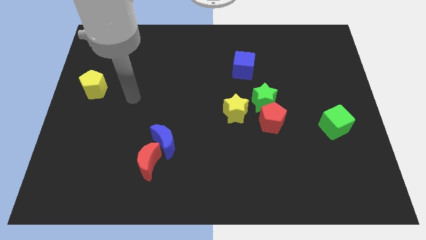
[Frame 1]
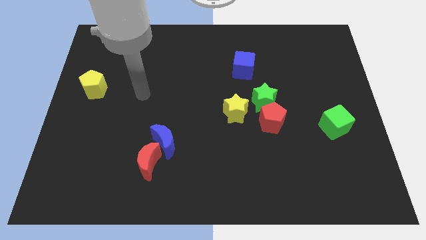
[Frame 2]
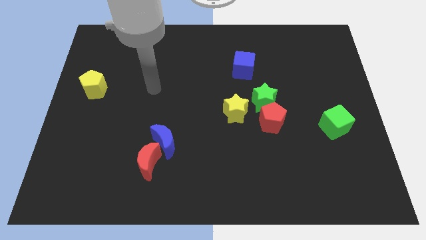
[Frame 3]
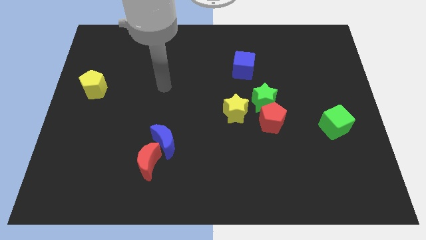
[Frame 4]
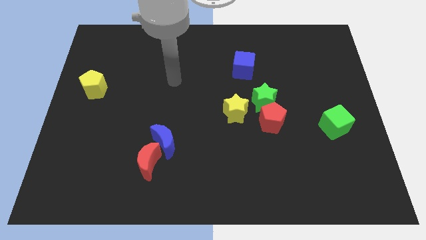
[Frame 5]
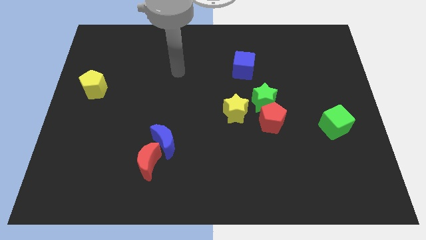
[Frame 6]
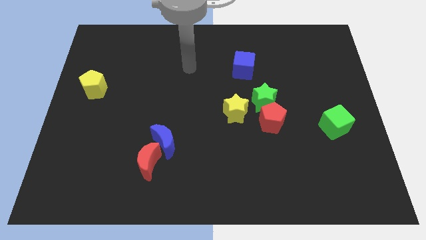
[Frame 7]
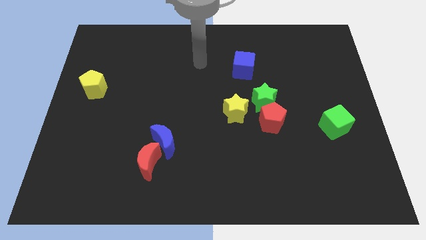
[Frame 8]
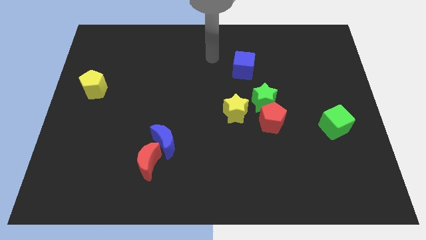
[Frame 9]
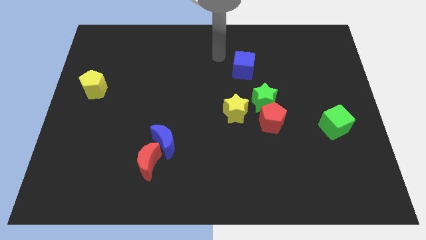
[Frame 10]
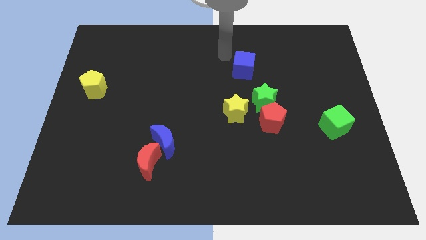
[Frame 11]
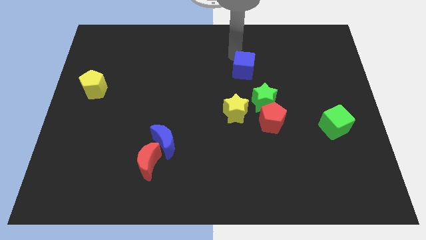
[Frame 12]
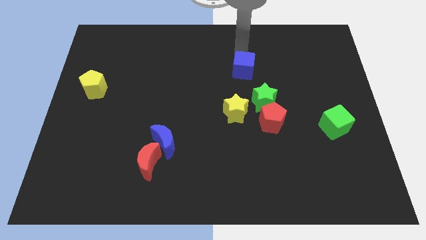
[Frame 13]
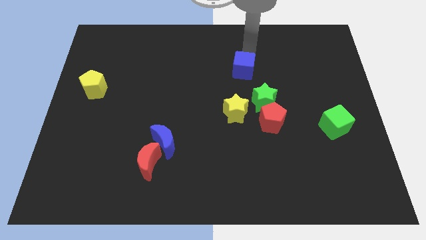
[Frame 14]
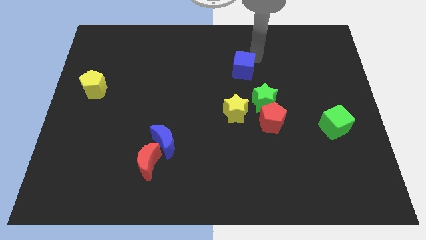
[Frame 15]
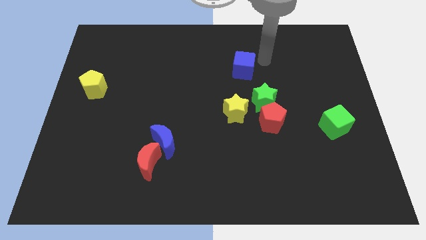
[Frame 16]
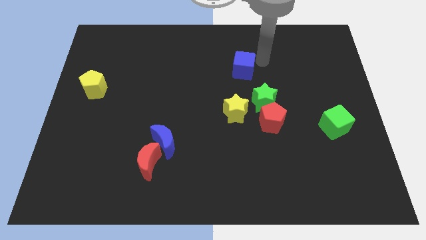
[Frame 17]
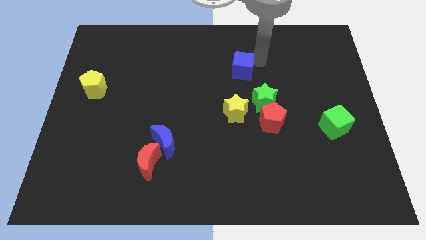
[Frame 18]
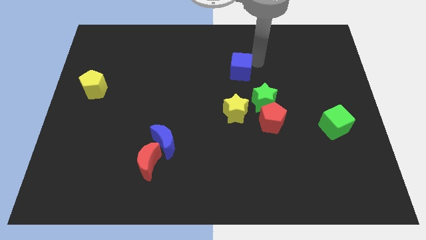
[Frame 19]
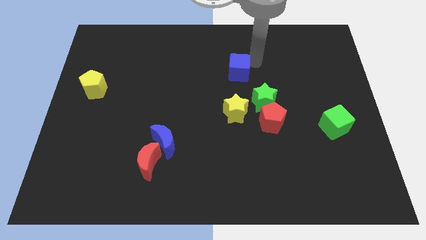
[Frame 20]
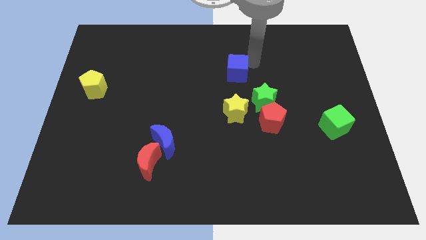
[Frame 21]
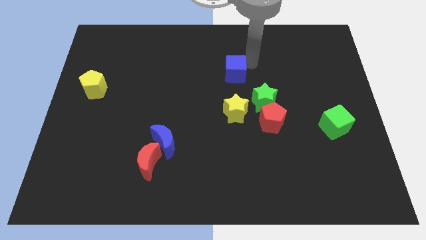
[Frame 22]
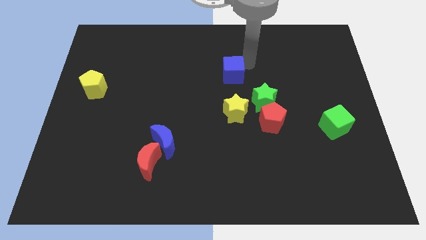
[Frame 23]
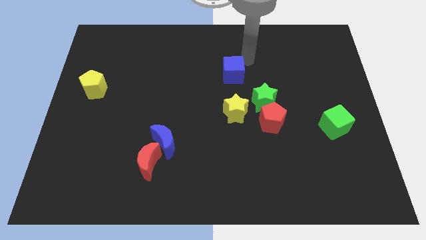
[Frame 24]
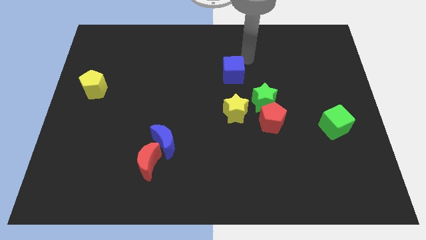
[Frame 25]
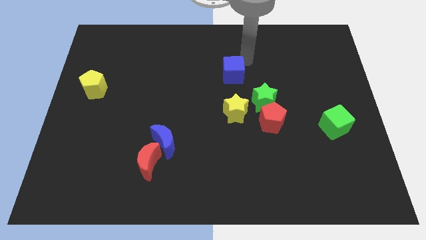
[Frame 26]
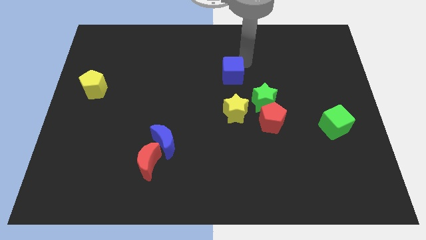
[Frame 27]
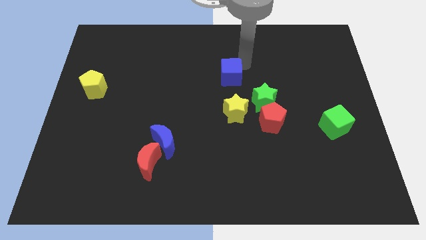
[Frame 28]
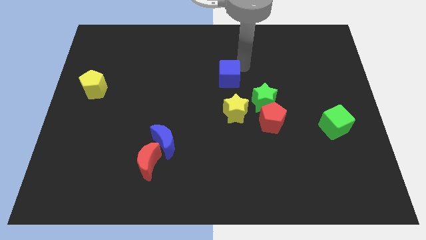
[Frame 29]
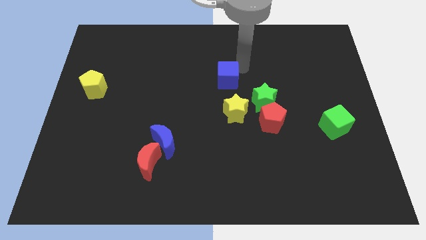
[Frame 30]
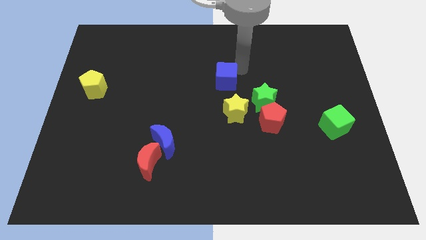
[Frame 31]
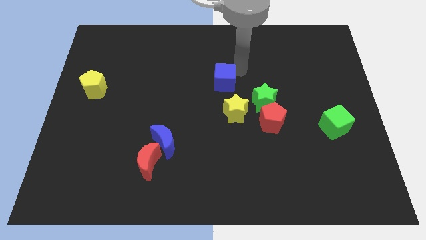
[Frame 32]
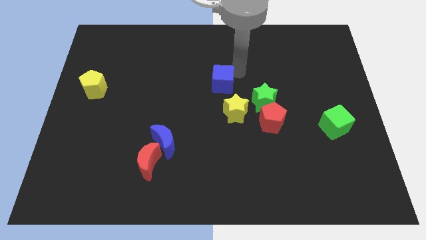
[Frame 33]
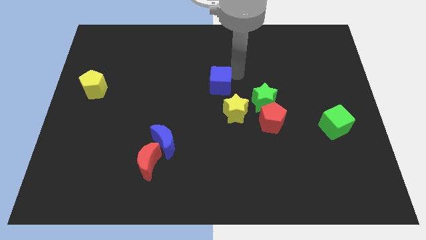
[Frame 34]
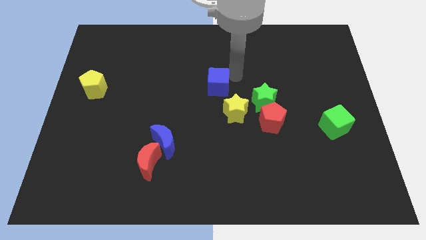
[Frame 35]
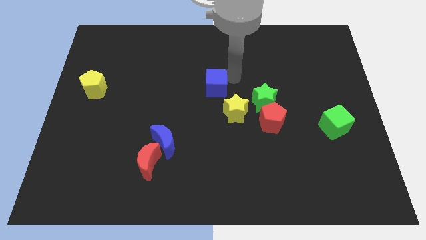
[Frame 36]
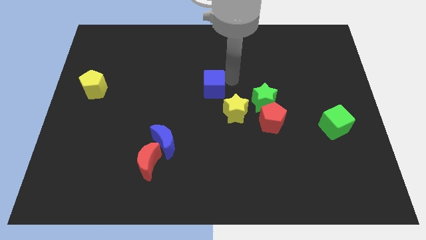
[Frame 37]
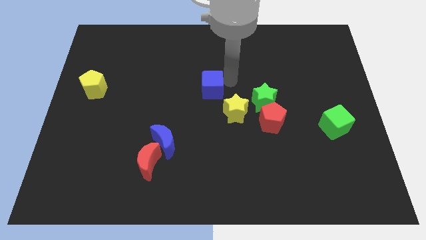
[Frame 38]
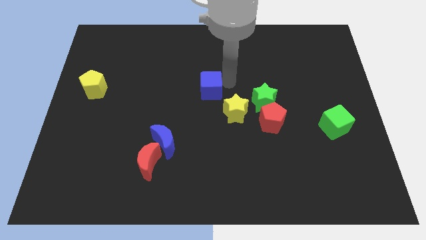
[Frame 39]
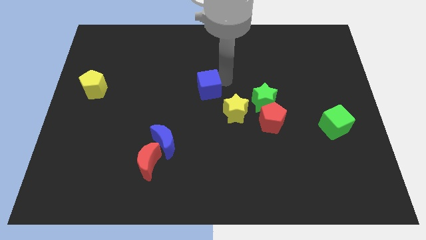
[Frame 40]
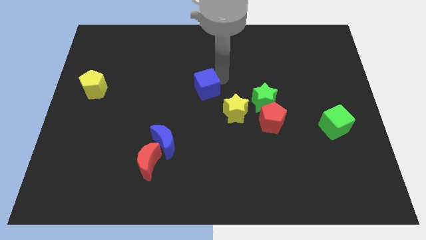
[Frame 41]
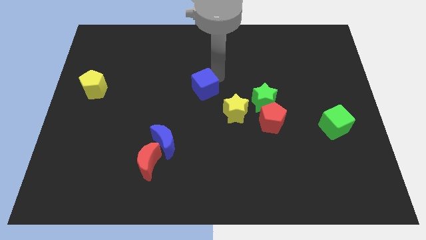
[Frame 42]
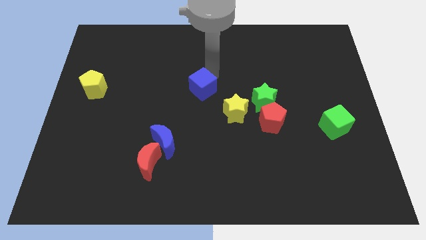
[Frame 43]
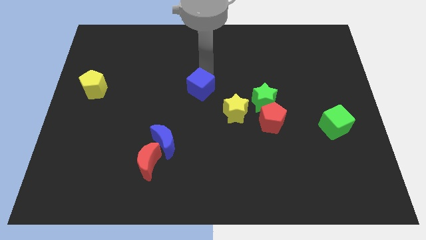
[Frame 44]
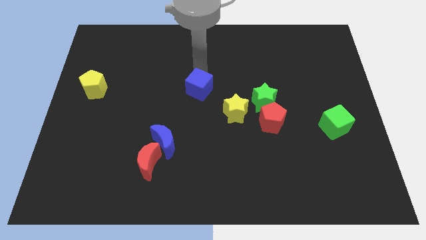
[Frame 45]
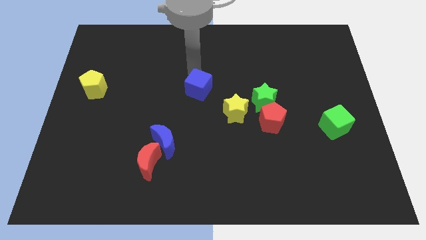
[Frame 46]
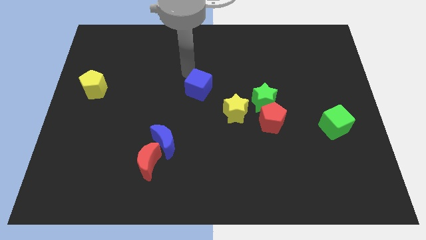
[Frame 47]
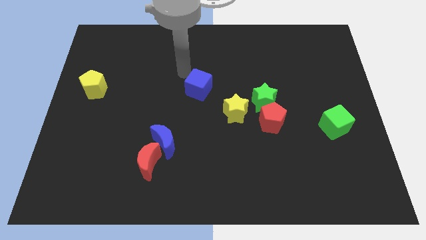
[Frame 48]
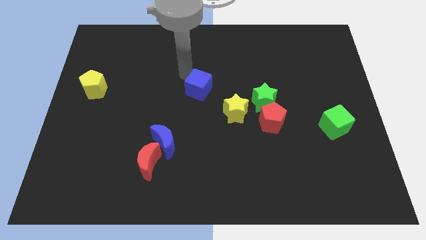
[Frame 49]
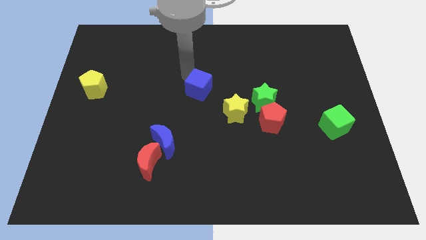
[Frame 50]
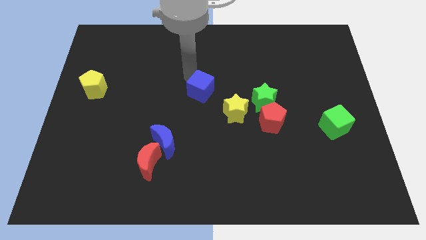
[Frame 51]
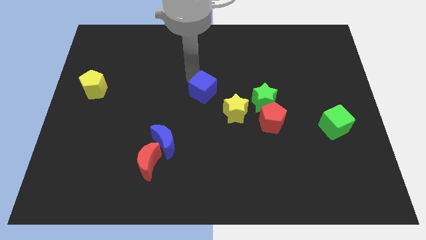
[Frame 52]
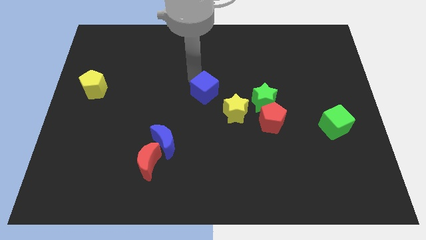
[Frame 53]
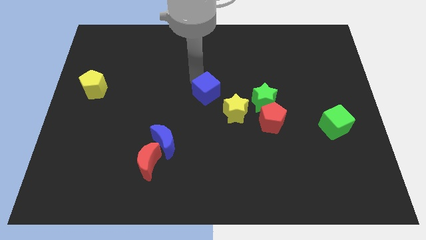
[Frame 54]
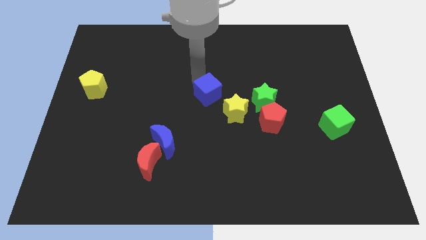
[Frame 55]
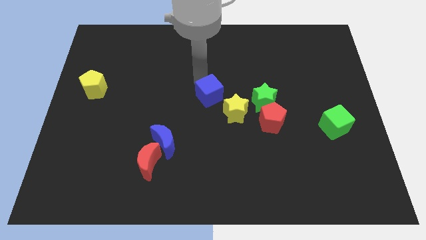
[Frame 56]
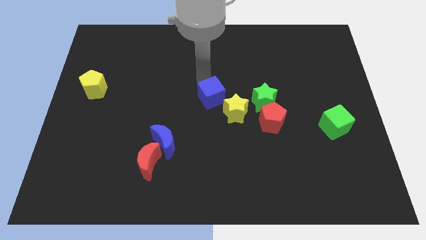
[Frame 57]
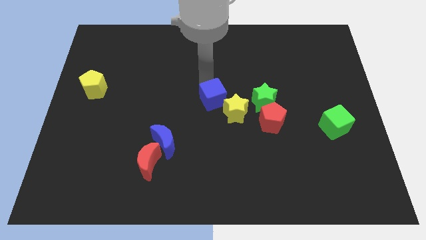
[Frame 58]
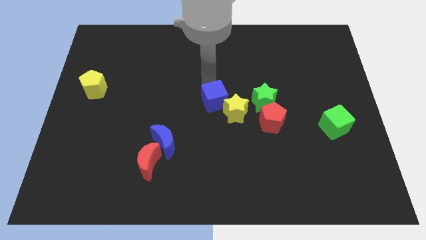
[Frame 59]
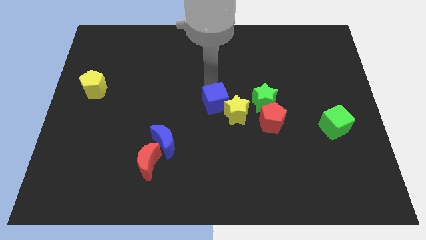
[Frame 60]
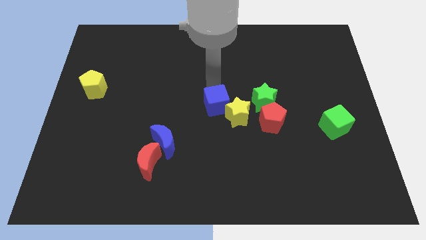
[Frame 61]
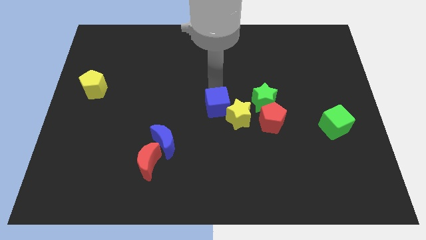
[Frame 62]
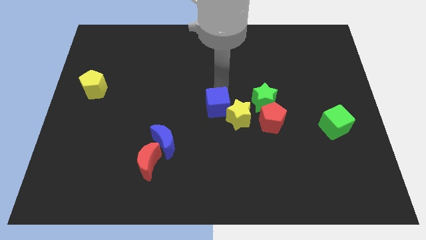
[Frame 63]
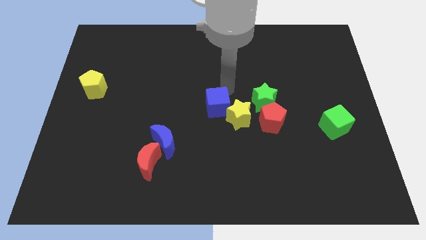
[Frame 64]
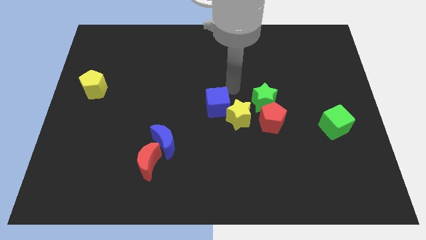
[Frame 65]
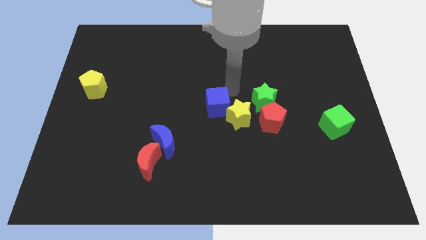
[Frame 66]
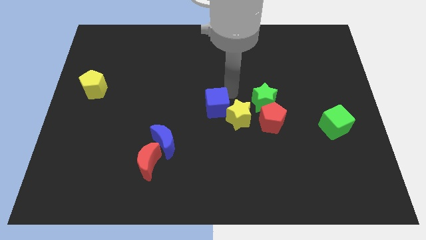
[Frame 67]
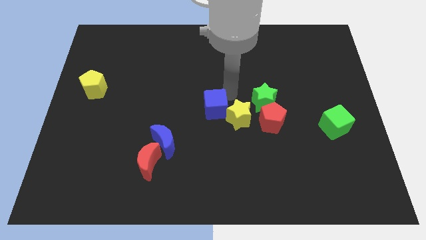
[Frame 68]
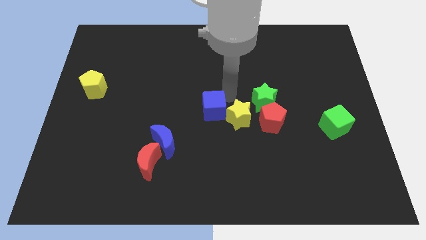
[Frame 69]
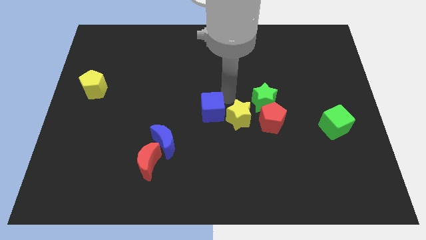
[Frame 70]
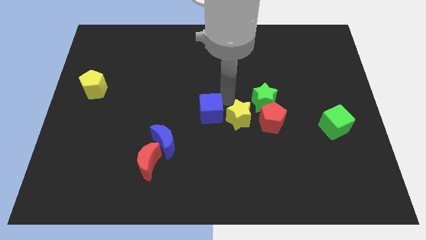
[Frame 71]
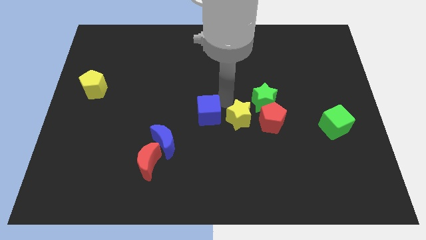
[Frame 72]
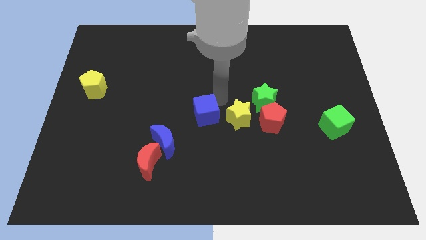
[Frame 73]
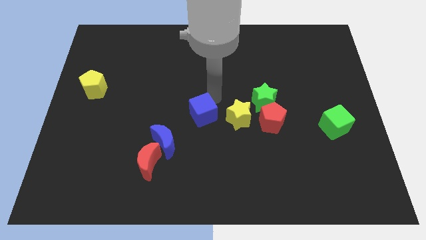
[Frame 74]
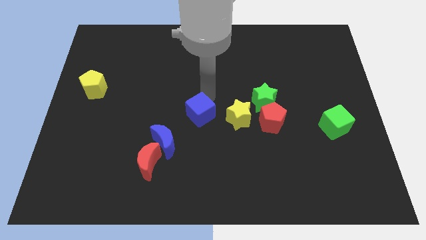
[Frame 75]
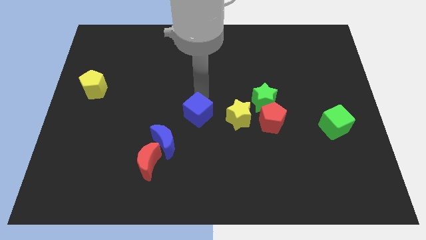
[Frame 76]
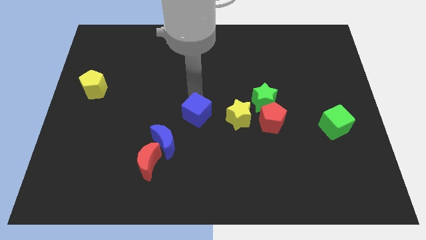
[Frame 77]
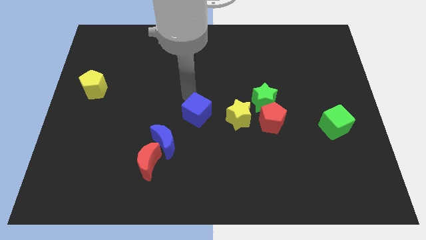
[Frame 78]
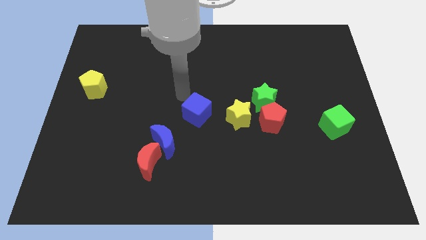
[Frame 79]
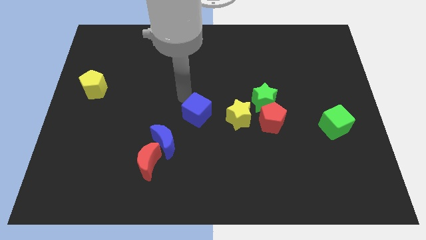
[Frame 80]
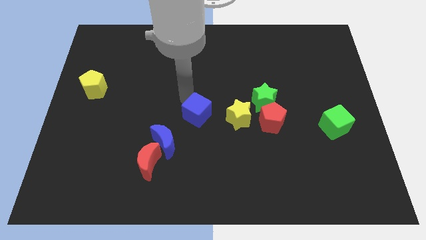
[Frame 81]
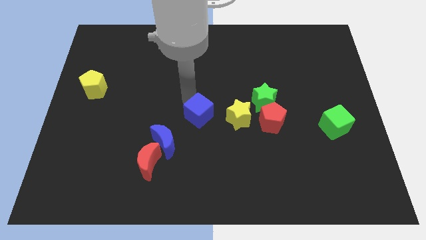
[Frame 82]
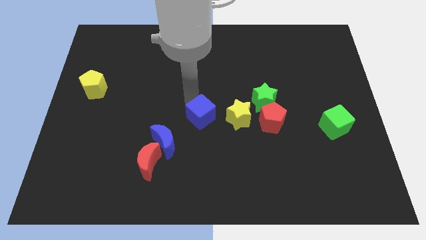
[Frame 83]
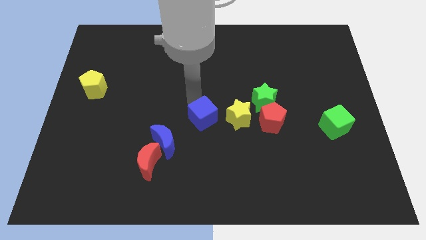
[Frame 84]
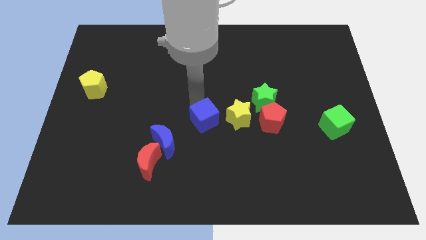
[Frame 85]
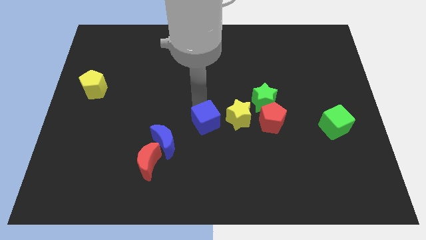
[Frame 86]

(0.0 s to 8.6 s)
put the blue cube diagonally down and to the left of the yellow star
